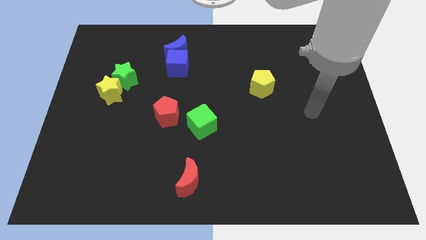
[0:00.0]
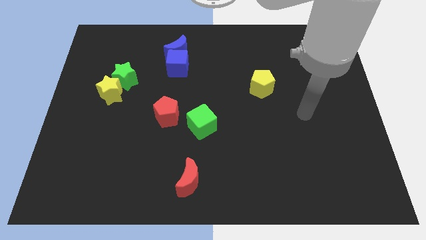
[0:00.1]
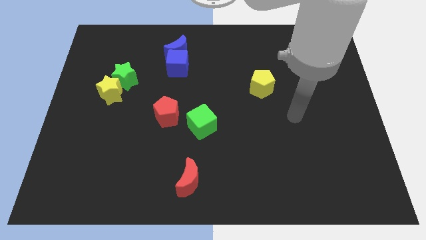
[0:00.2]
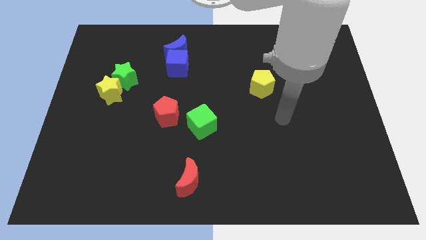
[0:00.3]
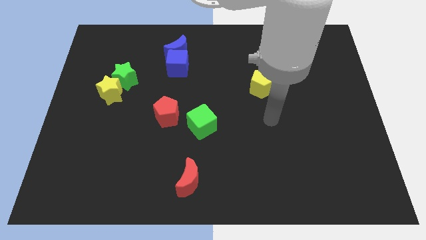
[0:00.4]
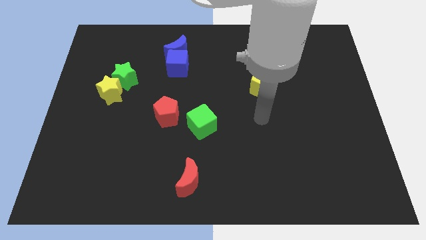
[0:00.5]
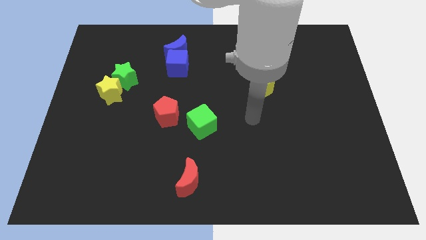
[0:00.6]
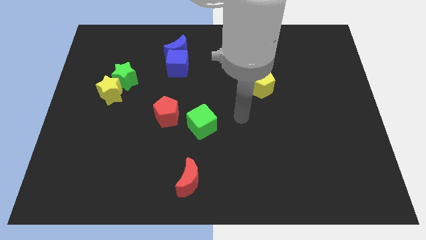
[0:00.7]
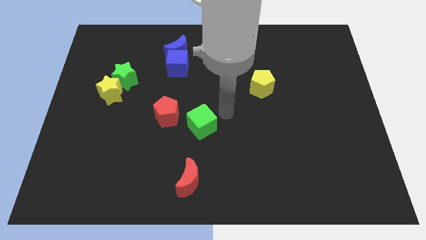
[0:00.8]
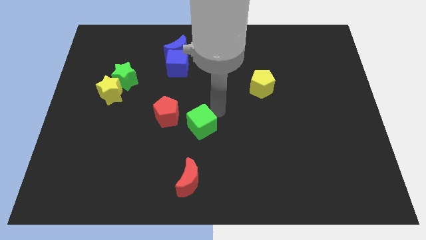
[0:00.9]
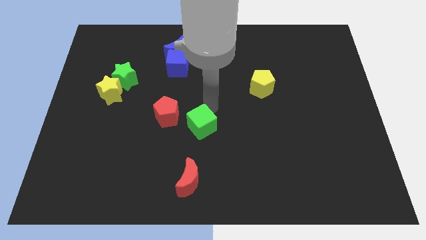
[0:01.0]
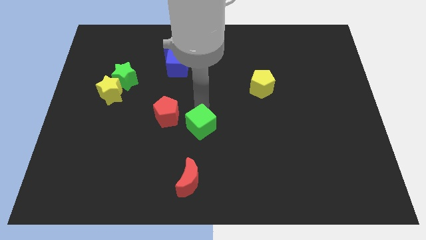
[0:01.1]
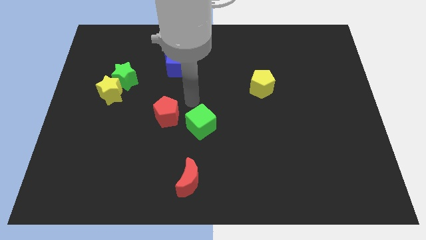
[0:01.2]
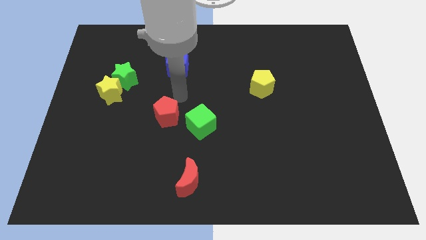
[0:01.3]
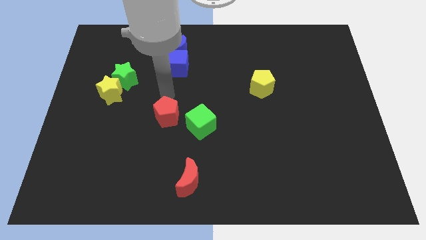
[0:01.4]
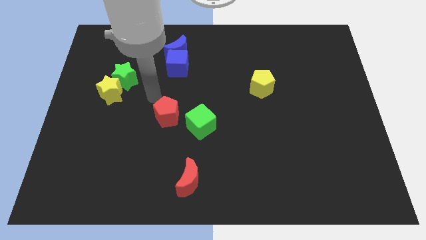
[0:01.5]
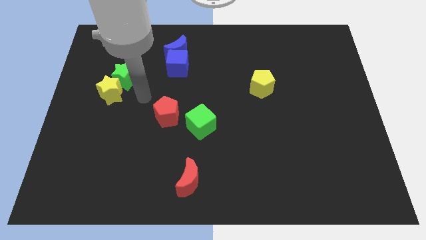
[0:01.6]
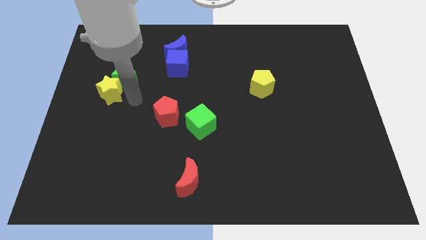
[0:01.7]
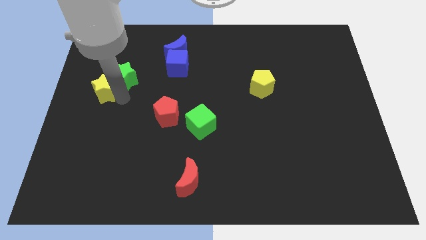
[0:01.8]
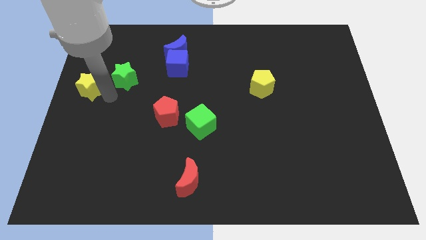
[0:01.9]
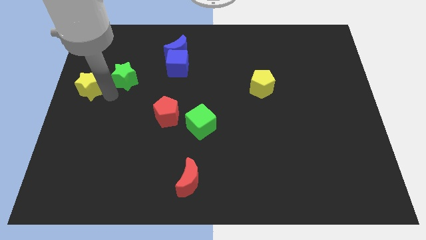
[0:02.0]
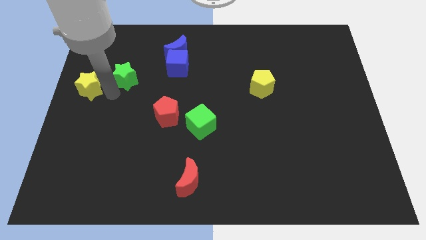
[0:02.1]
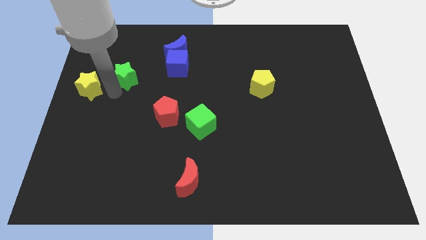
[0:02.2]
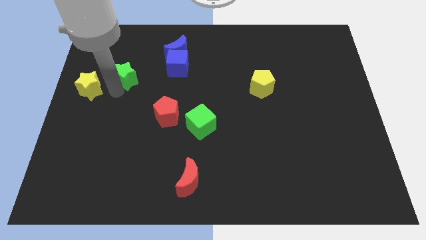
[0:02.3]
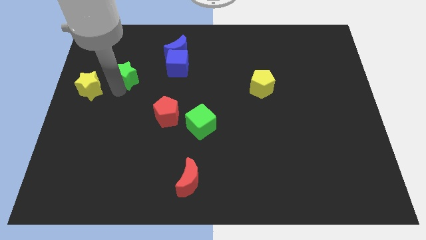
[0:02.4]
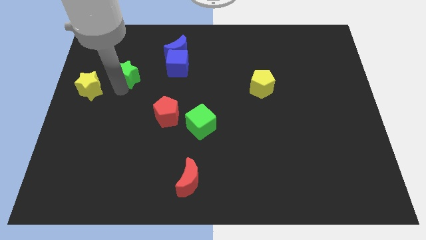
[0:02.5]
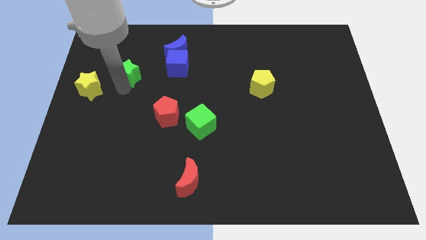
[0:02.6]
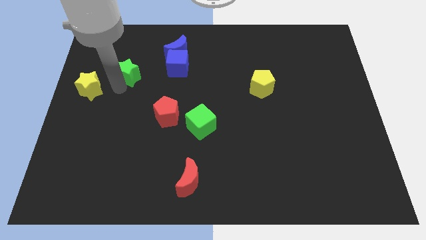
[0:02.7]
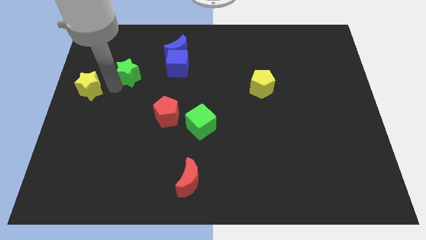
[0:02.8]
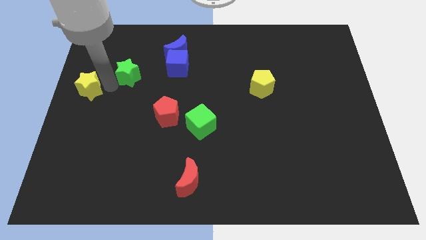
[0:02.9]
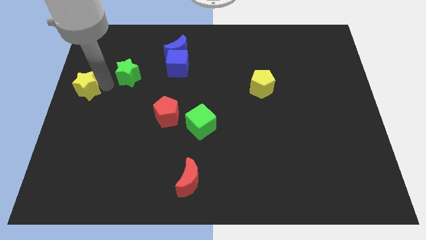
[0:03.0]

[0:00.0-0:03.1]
separate the green star from the yellow star

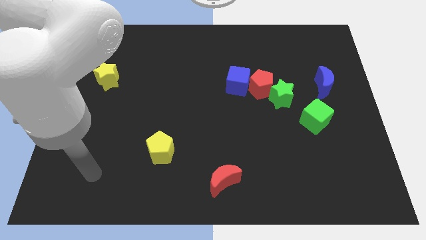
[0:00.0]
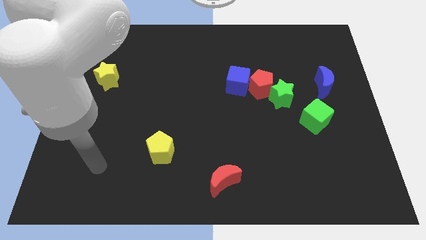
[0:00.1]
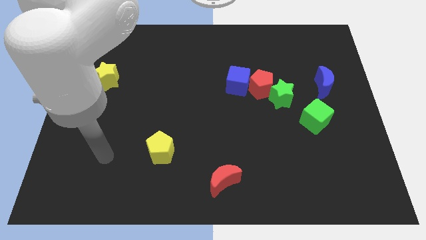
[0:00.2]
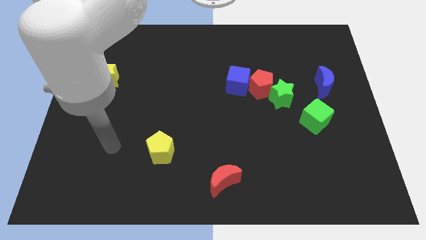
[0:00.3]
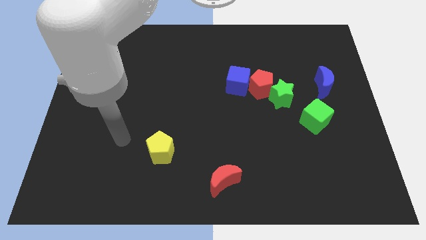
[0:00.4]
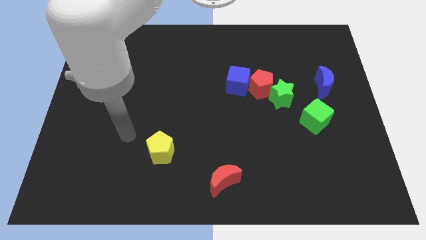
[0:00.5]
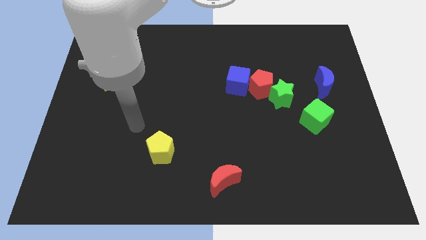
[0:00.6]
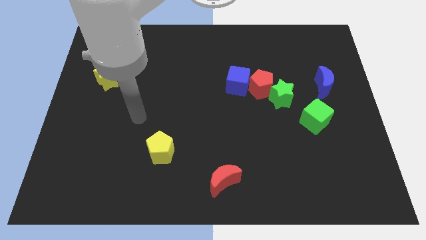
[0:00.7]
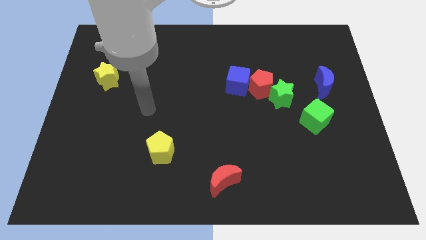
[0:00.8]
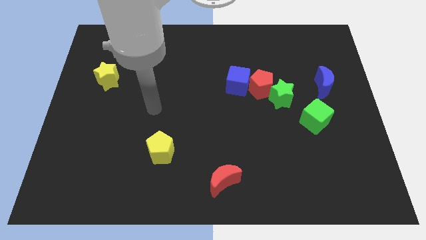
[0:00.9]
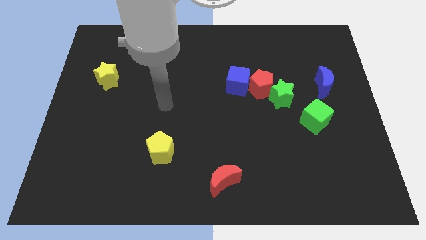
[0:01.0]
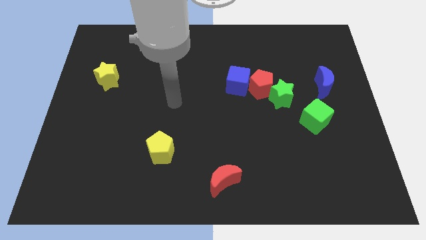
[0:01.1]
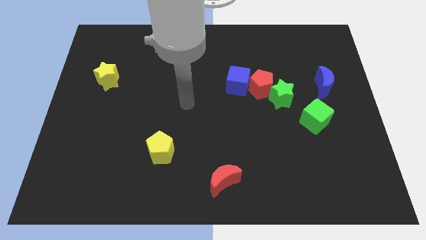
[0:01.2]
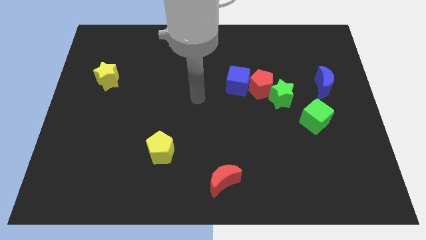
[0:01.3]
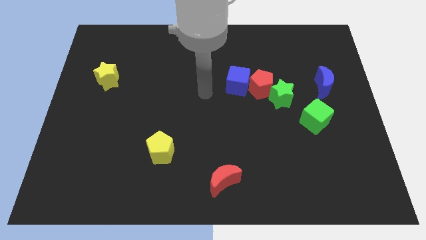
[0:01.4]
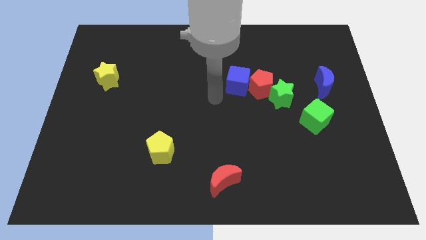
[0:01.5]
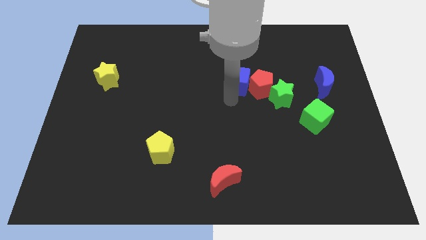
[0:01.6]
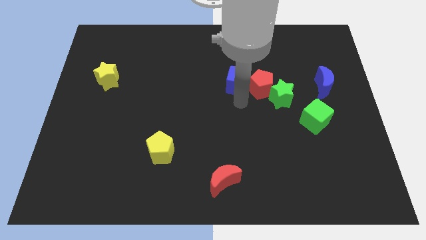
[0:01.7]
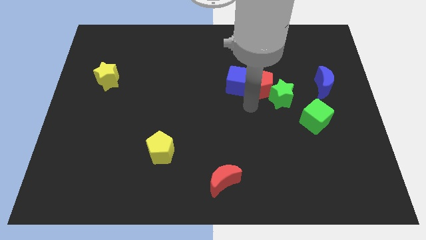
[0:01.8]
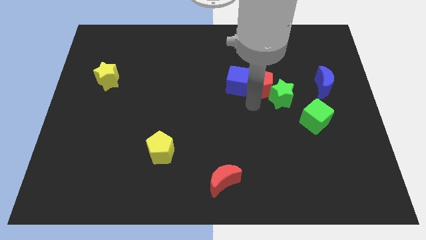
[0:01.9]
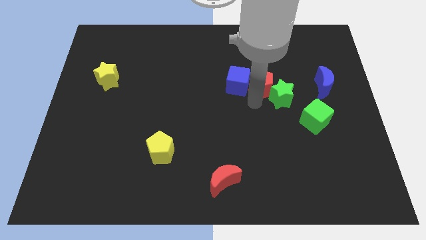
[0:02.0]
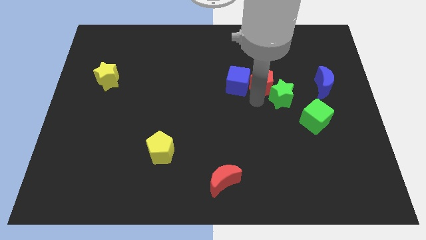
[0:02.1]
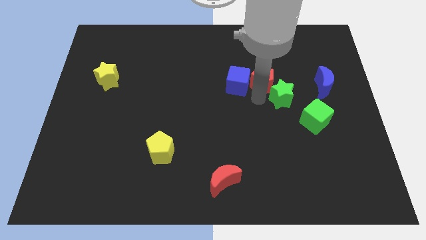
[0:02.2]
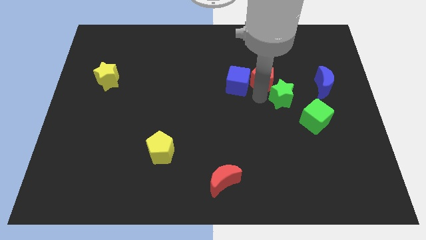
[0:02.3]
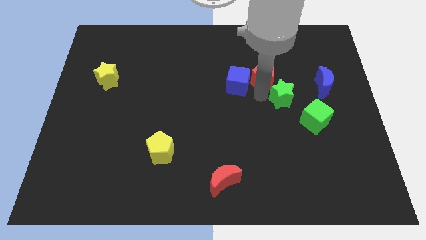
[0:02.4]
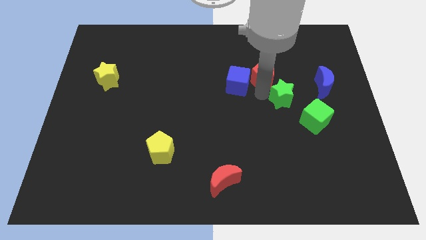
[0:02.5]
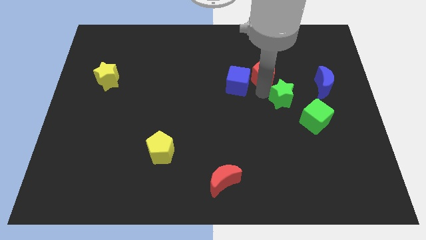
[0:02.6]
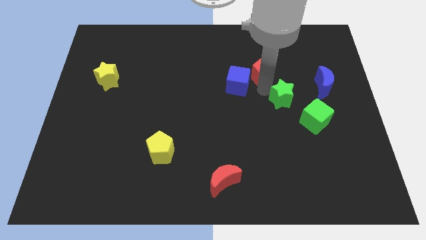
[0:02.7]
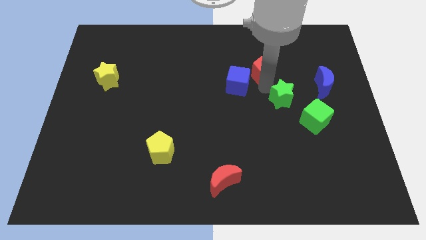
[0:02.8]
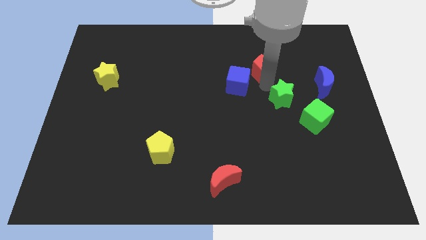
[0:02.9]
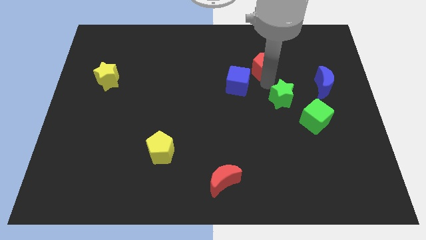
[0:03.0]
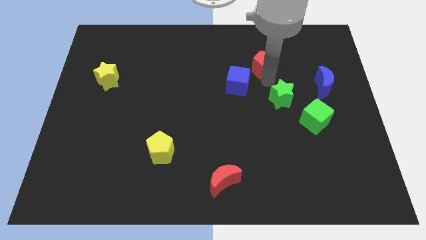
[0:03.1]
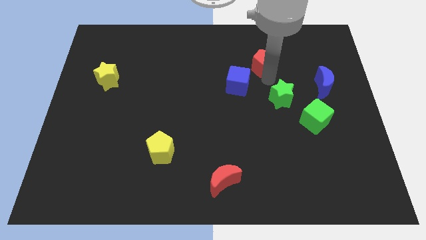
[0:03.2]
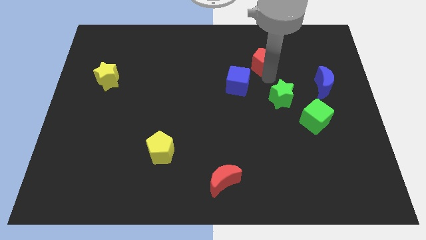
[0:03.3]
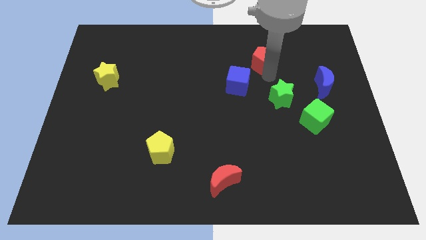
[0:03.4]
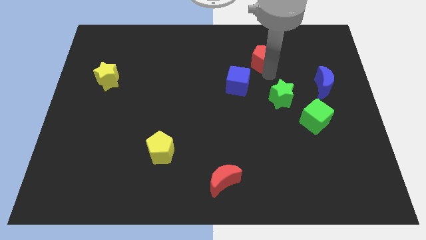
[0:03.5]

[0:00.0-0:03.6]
pull the red pentagon apart from the green star and blue cube

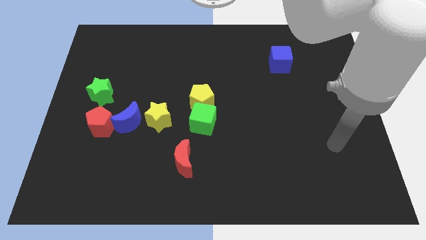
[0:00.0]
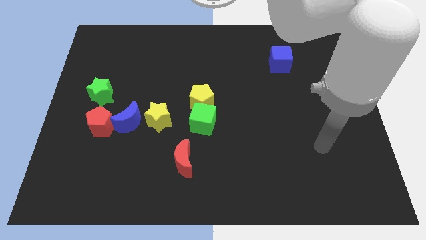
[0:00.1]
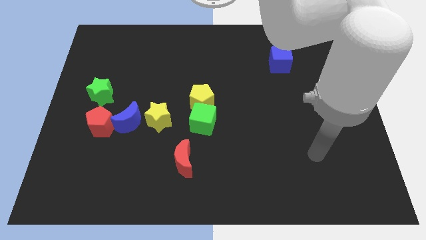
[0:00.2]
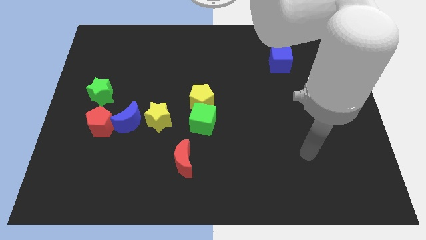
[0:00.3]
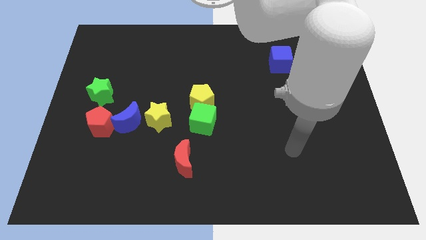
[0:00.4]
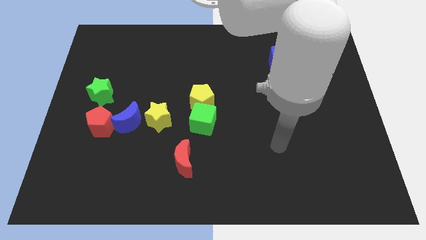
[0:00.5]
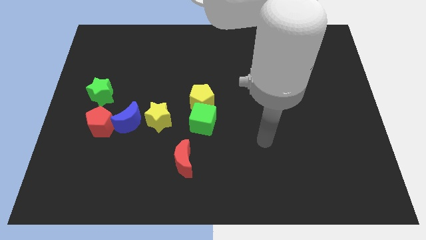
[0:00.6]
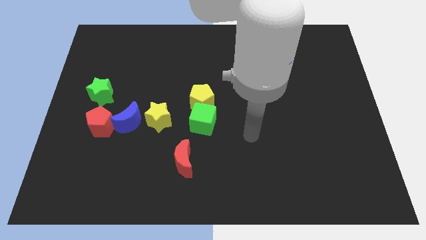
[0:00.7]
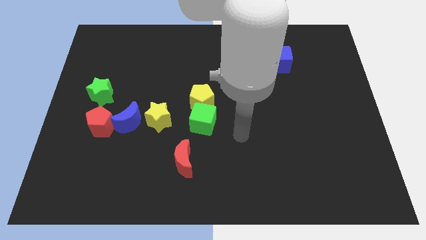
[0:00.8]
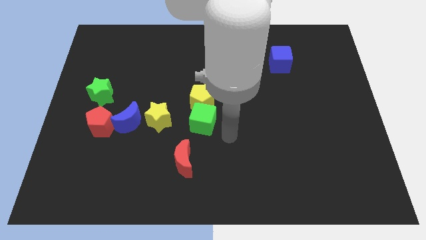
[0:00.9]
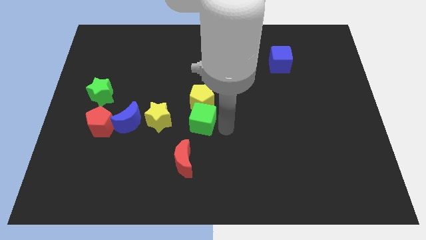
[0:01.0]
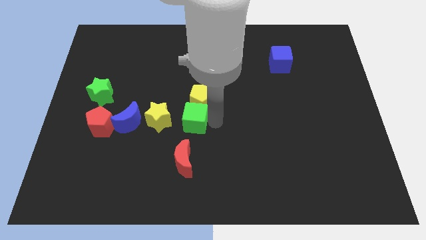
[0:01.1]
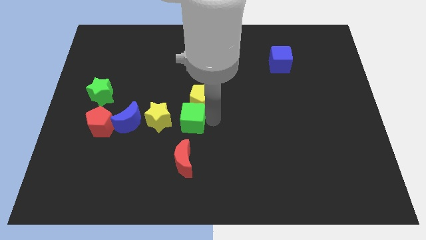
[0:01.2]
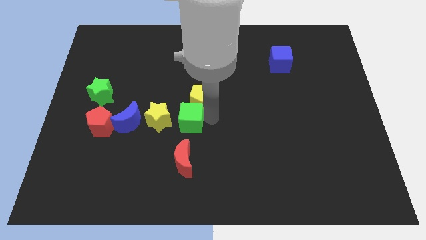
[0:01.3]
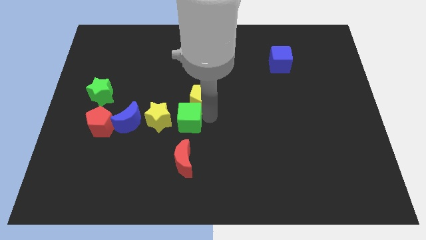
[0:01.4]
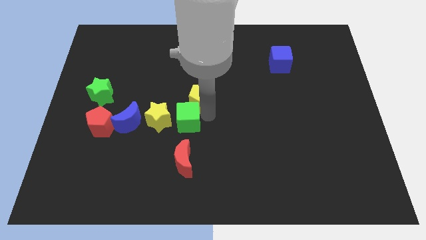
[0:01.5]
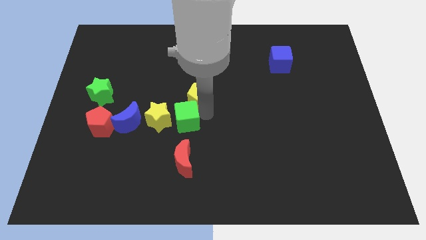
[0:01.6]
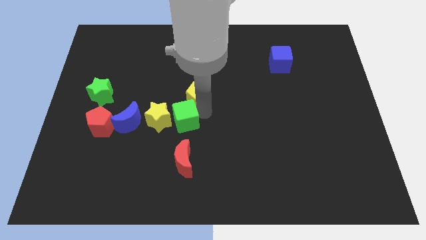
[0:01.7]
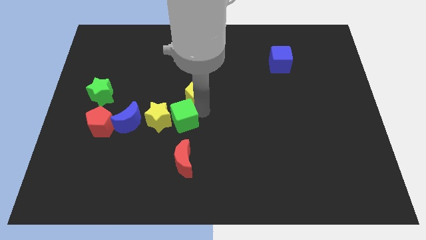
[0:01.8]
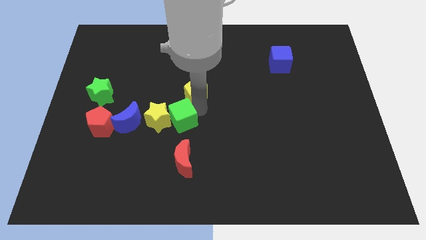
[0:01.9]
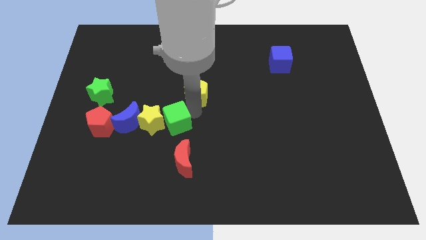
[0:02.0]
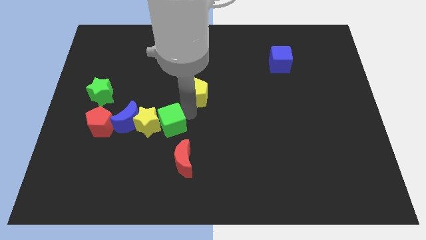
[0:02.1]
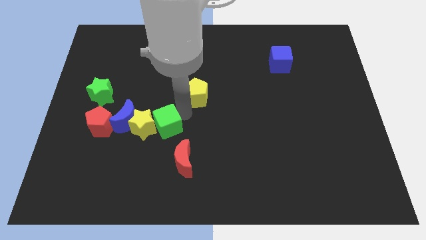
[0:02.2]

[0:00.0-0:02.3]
separate the yellow pentagon from the green cube

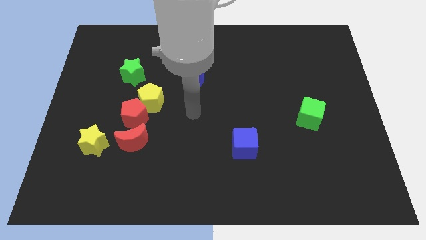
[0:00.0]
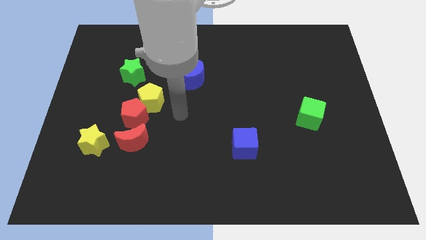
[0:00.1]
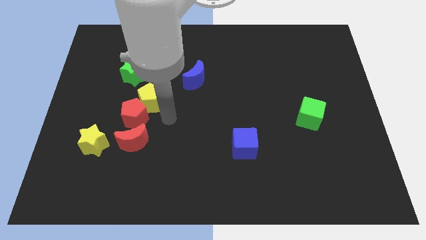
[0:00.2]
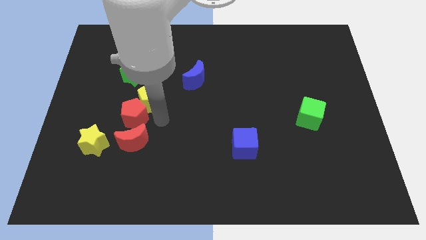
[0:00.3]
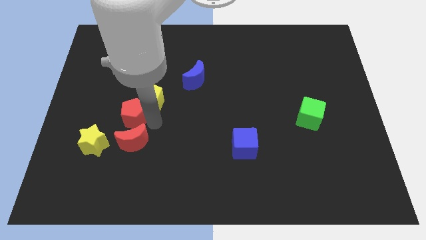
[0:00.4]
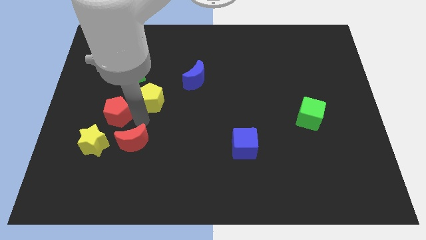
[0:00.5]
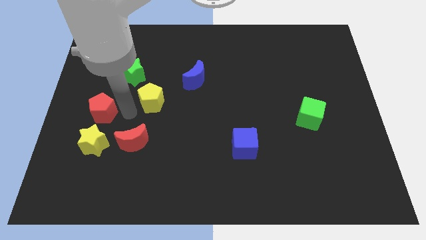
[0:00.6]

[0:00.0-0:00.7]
separate the yellow pentagon from the red pentagon
